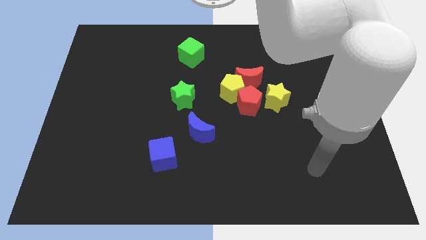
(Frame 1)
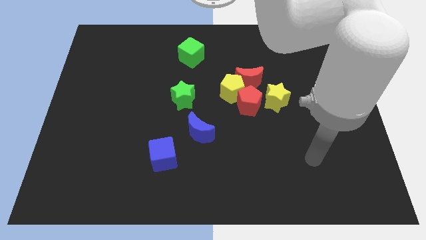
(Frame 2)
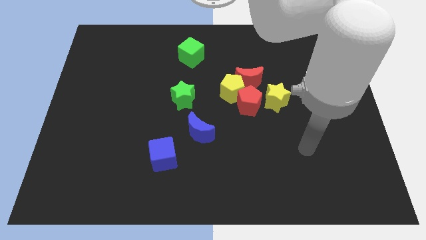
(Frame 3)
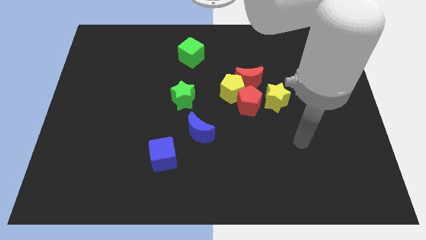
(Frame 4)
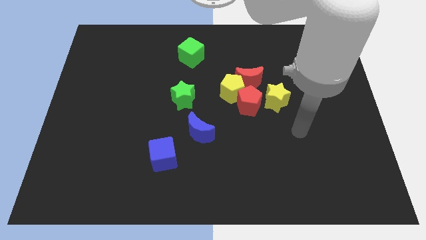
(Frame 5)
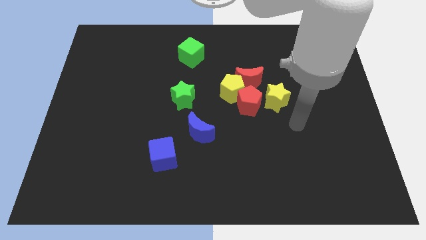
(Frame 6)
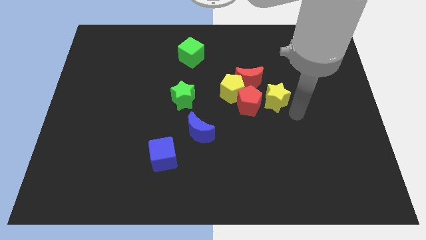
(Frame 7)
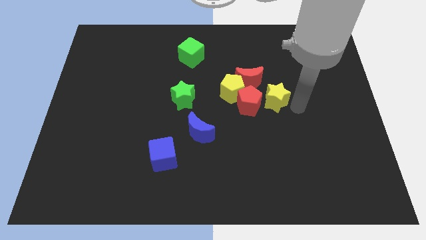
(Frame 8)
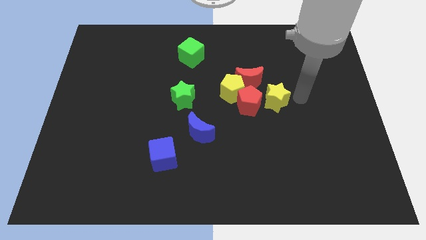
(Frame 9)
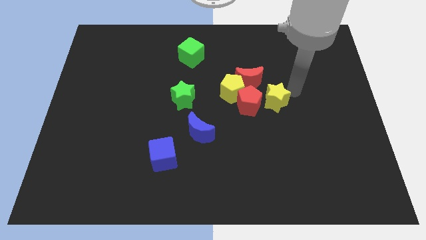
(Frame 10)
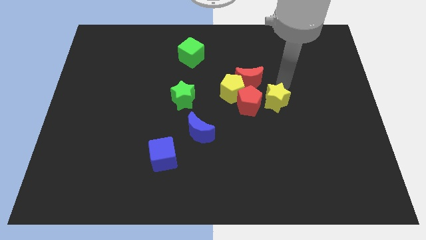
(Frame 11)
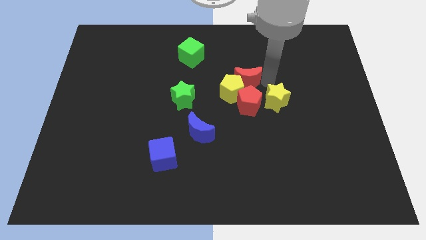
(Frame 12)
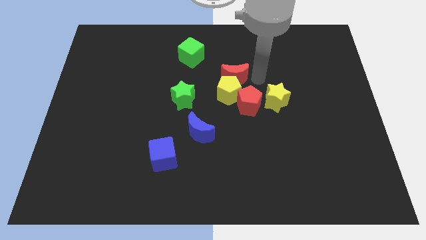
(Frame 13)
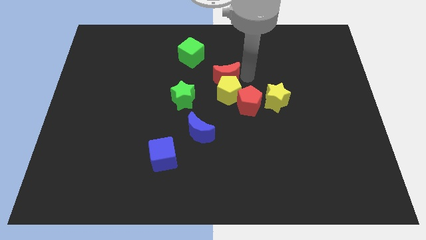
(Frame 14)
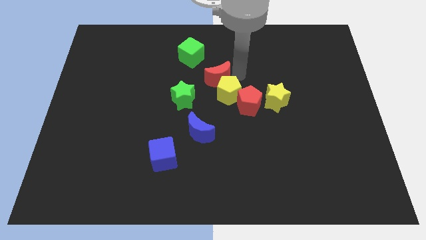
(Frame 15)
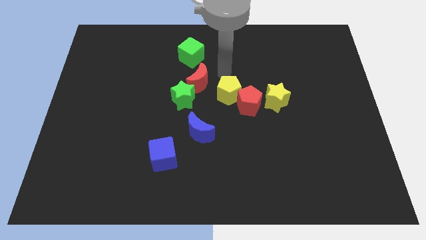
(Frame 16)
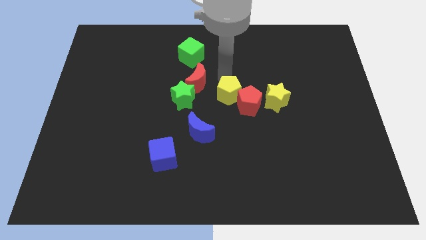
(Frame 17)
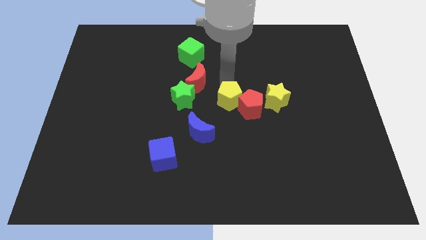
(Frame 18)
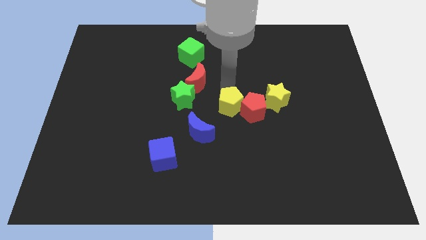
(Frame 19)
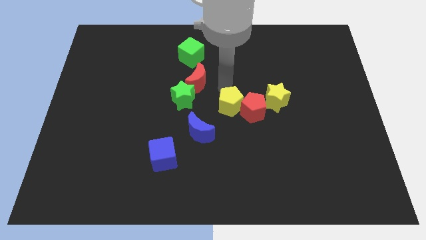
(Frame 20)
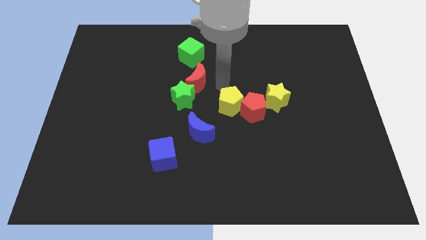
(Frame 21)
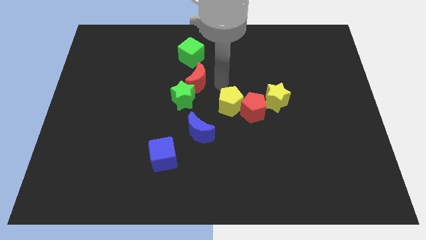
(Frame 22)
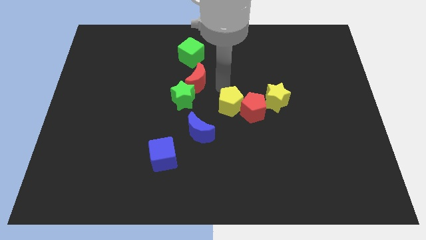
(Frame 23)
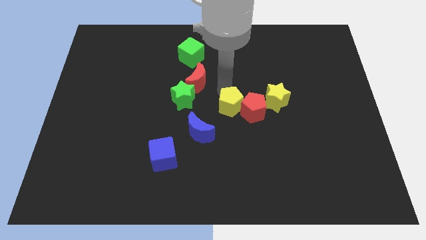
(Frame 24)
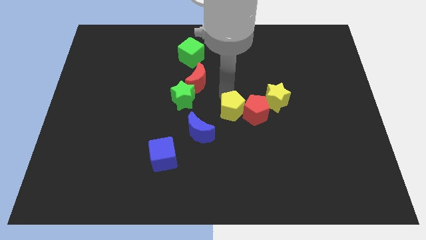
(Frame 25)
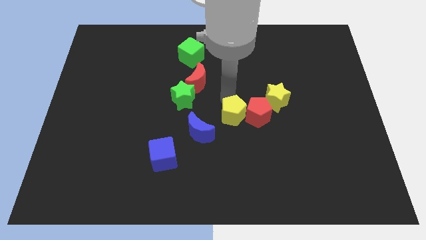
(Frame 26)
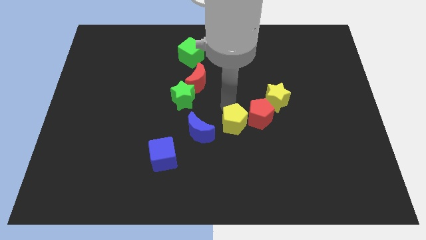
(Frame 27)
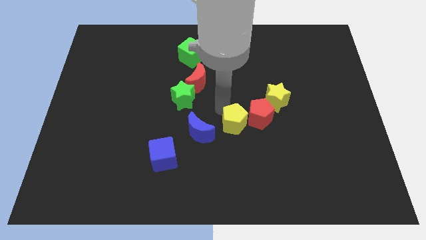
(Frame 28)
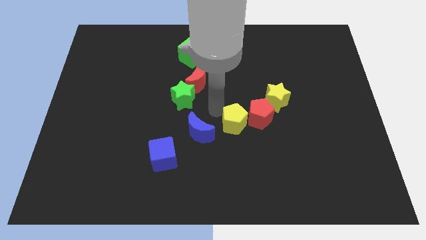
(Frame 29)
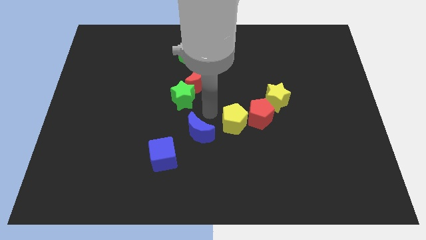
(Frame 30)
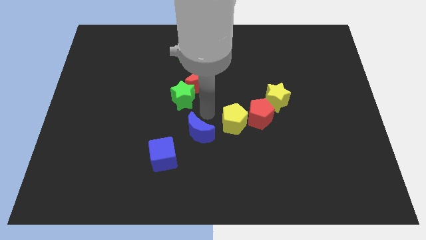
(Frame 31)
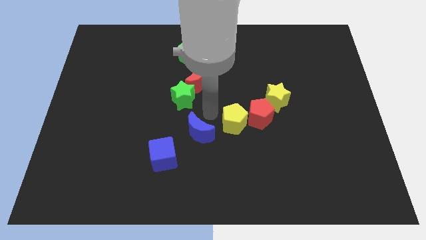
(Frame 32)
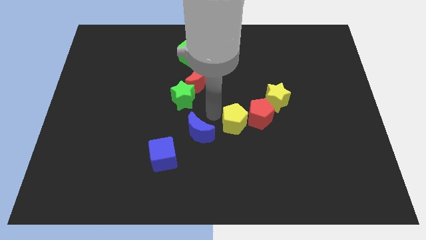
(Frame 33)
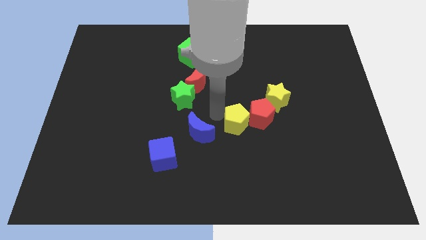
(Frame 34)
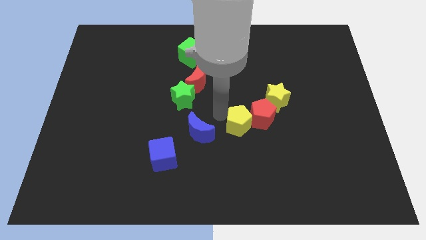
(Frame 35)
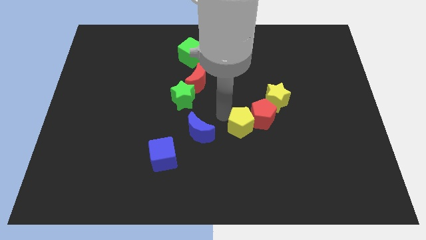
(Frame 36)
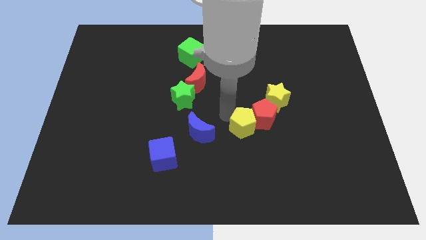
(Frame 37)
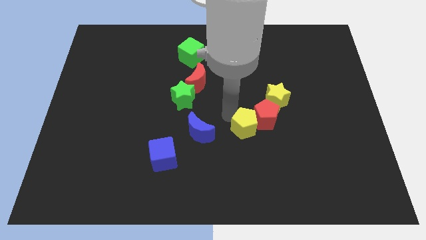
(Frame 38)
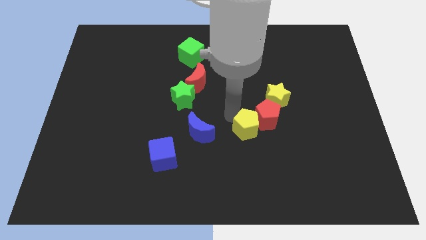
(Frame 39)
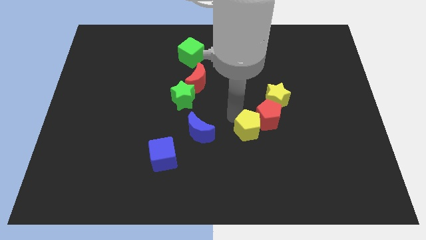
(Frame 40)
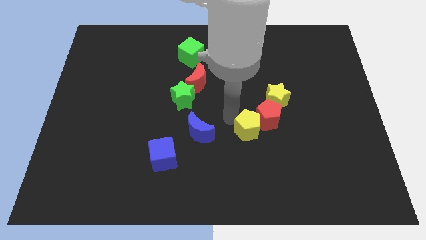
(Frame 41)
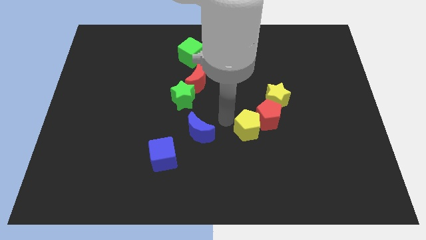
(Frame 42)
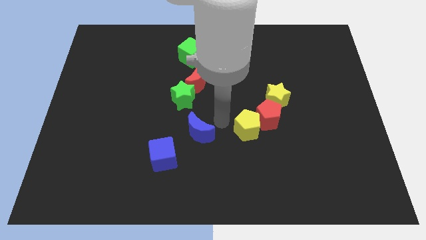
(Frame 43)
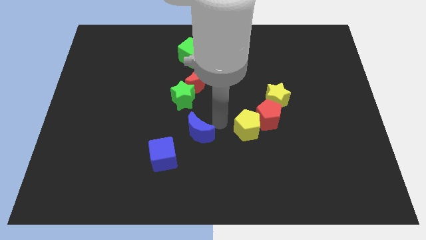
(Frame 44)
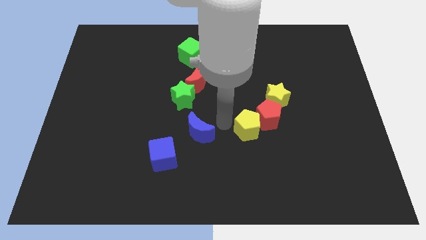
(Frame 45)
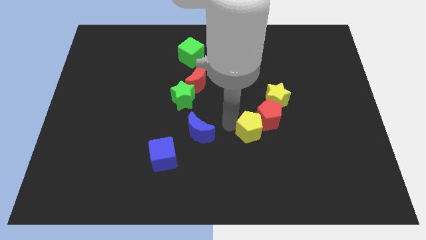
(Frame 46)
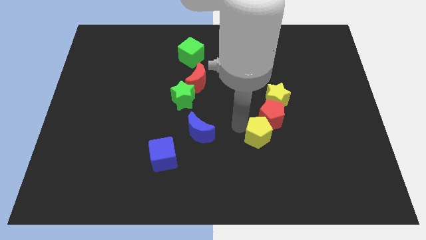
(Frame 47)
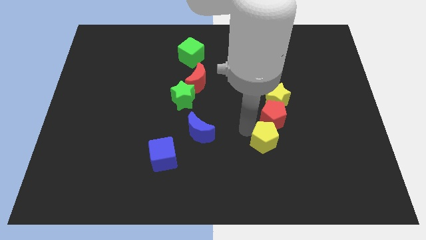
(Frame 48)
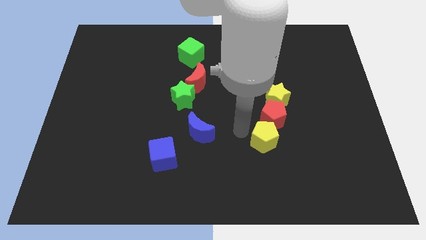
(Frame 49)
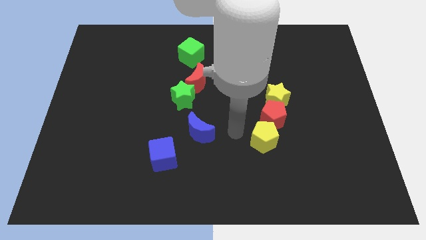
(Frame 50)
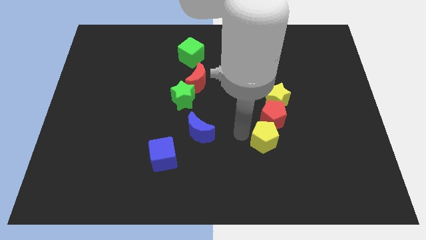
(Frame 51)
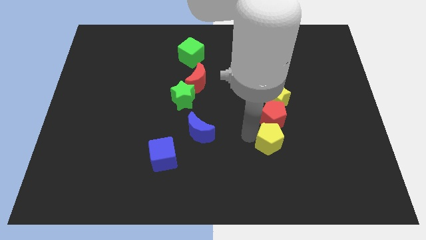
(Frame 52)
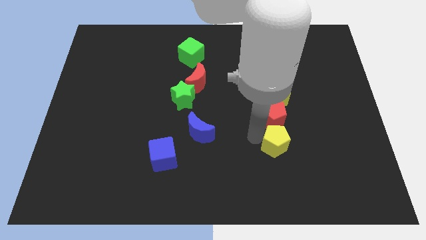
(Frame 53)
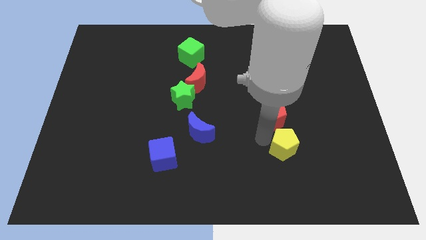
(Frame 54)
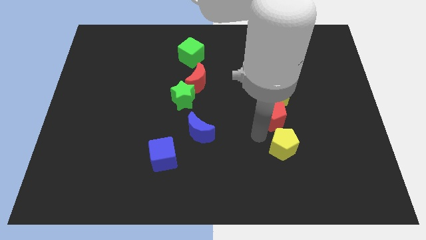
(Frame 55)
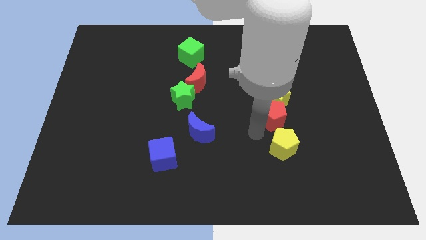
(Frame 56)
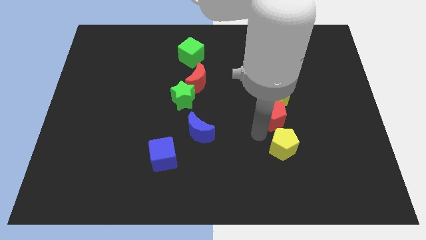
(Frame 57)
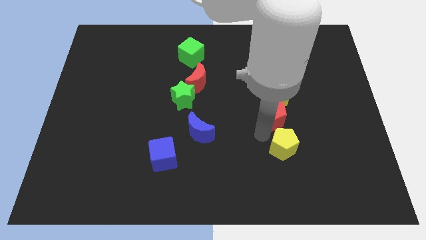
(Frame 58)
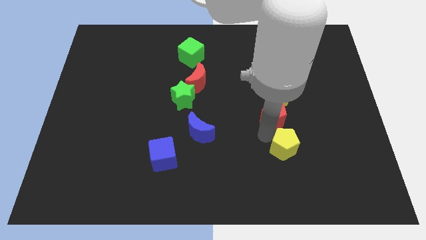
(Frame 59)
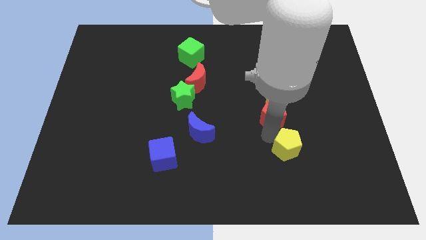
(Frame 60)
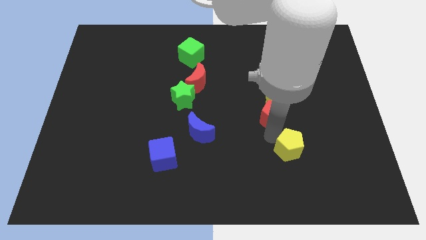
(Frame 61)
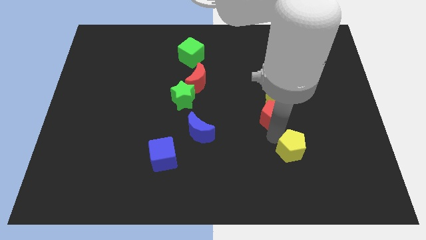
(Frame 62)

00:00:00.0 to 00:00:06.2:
slide the yellow pentagon downwards and right

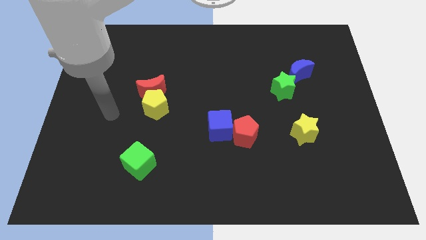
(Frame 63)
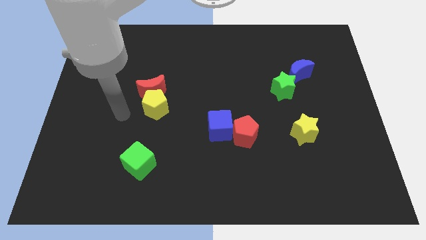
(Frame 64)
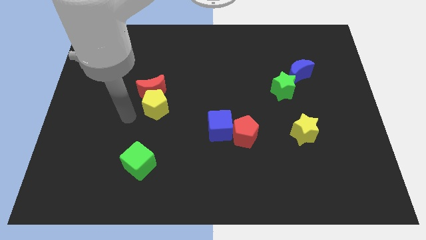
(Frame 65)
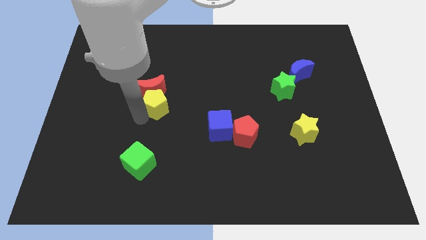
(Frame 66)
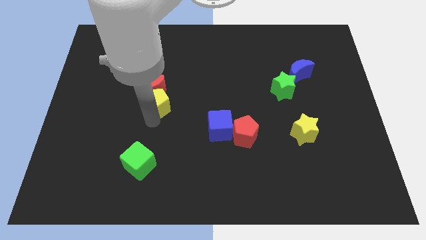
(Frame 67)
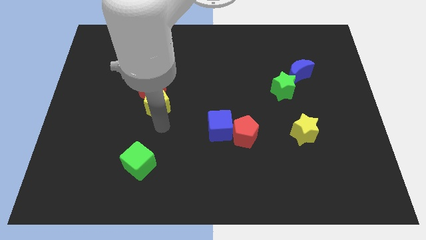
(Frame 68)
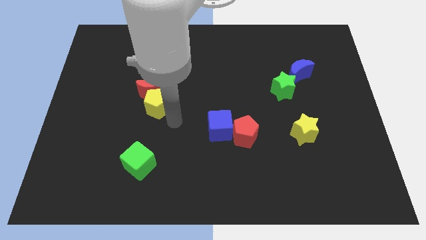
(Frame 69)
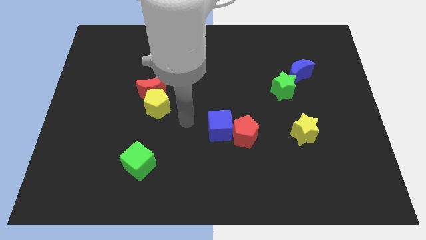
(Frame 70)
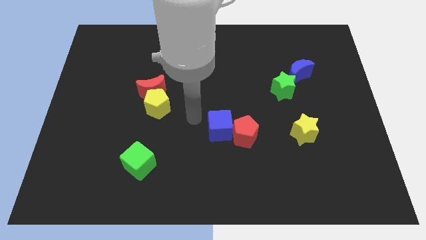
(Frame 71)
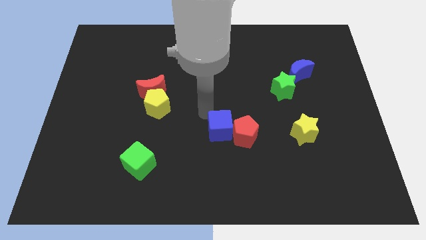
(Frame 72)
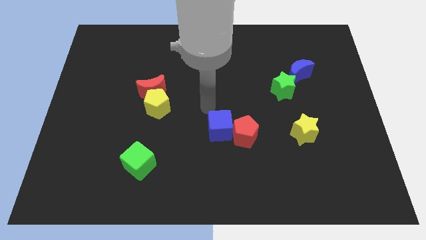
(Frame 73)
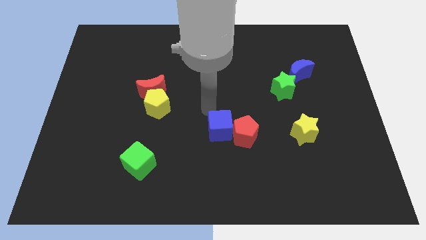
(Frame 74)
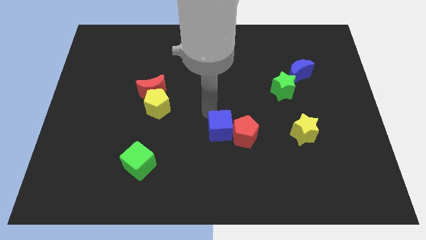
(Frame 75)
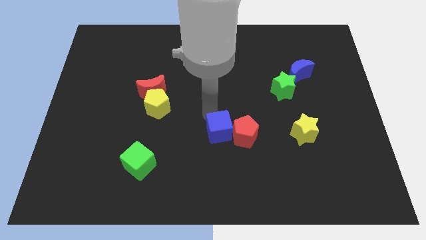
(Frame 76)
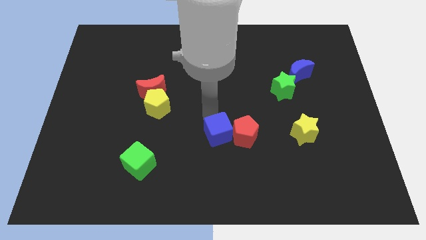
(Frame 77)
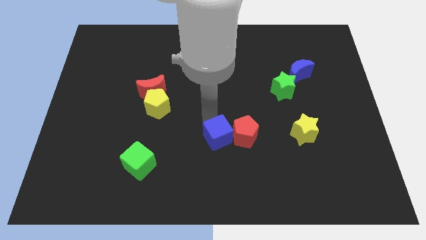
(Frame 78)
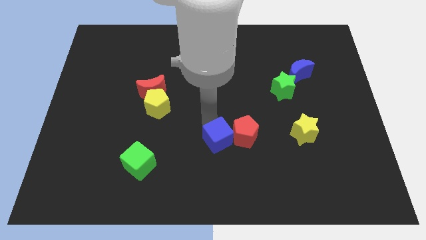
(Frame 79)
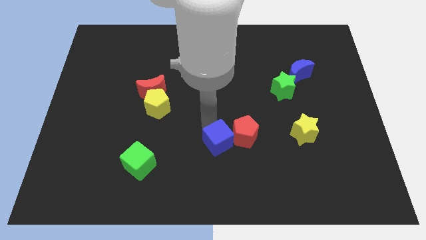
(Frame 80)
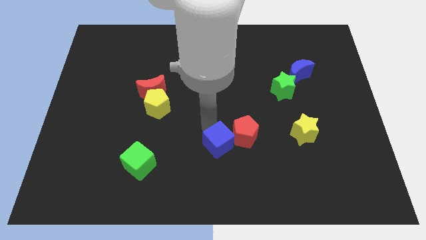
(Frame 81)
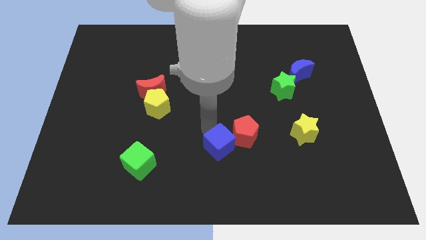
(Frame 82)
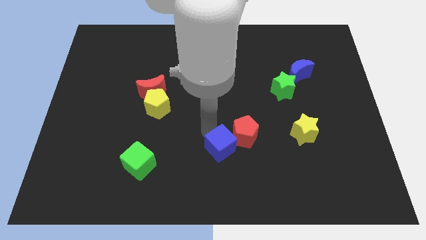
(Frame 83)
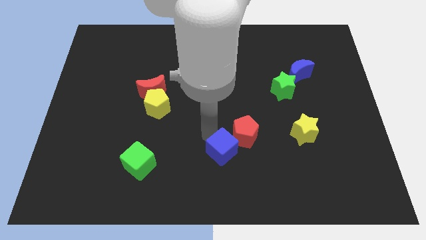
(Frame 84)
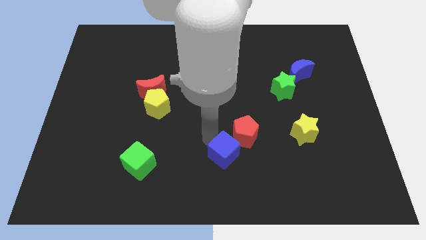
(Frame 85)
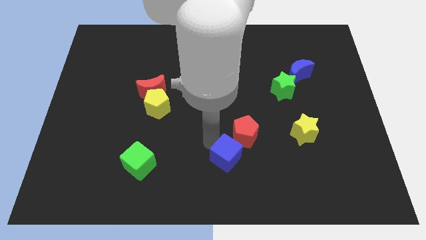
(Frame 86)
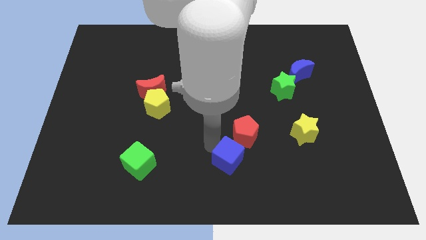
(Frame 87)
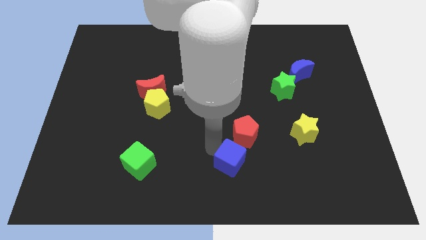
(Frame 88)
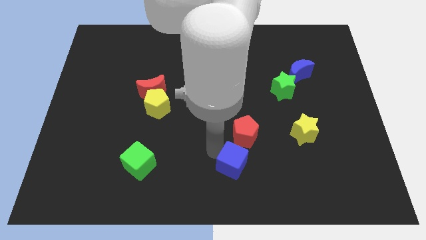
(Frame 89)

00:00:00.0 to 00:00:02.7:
slightly move the blue cube diagonally down and to the right
